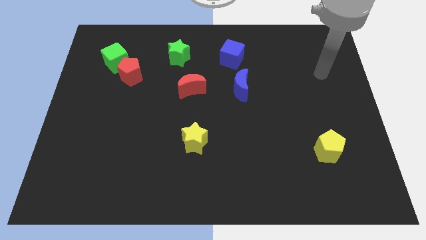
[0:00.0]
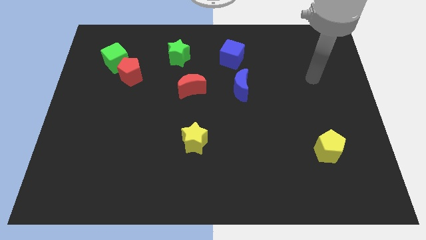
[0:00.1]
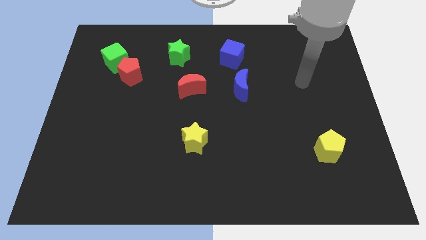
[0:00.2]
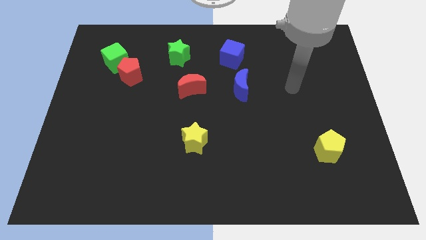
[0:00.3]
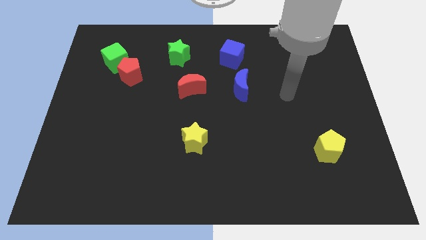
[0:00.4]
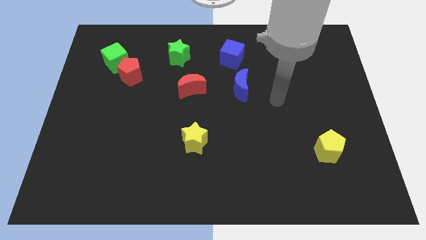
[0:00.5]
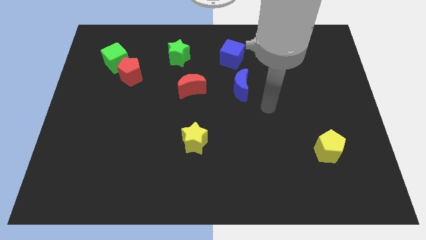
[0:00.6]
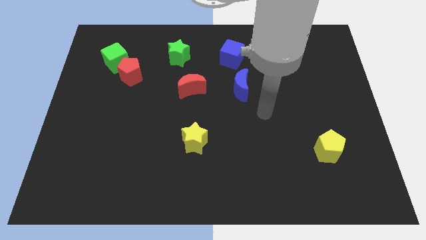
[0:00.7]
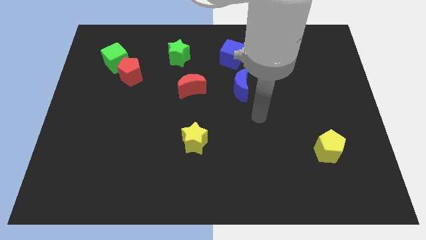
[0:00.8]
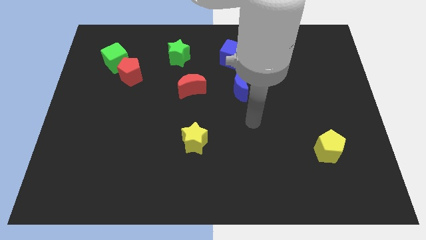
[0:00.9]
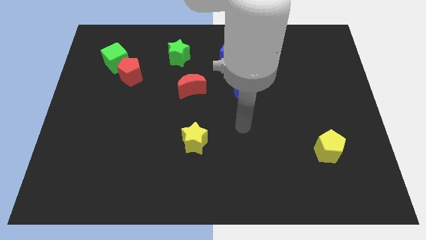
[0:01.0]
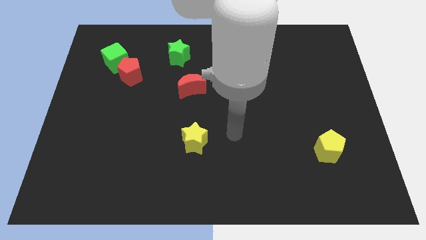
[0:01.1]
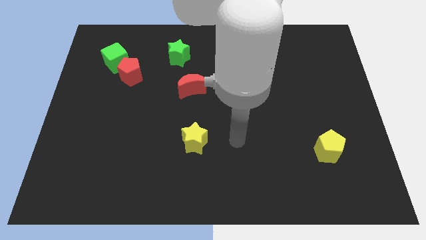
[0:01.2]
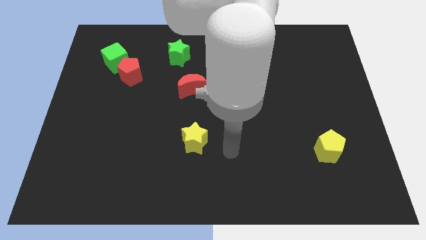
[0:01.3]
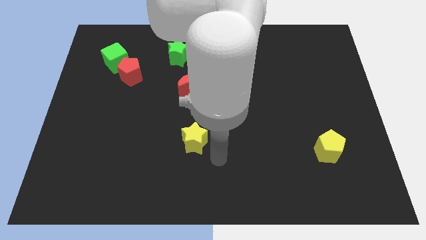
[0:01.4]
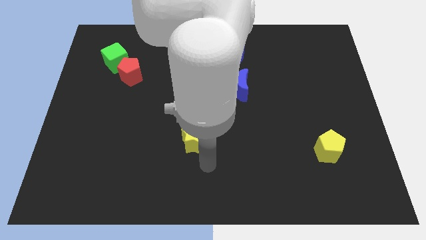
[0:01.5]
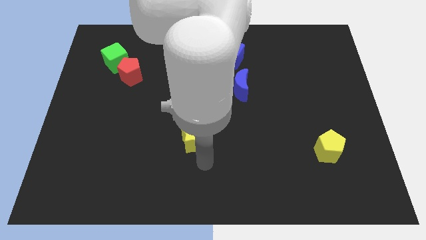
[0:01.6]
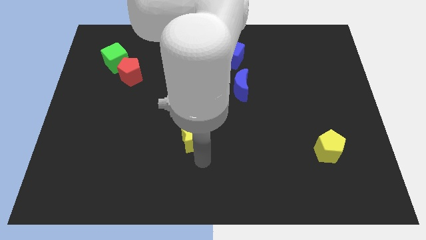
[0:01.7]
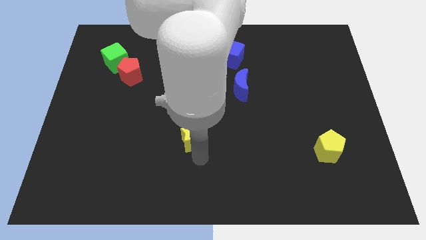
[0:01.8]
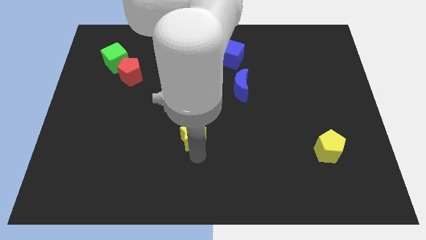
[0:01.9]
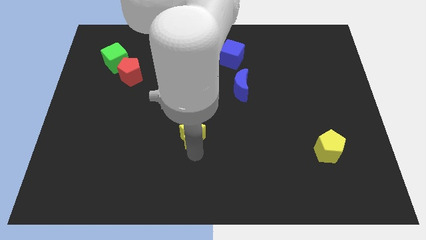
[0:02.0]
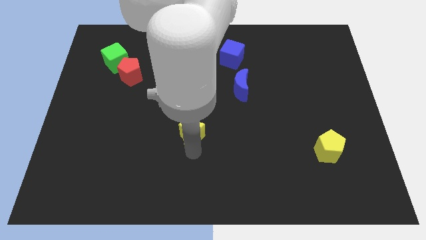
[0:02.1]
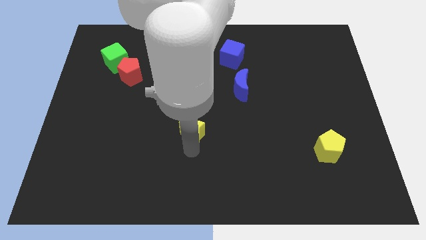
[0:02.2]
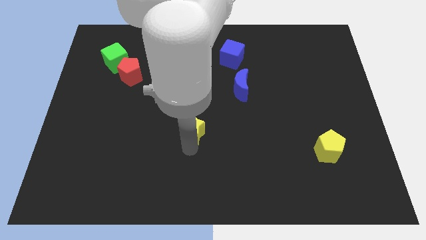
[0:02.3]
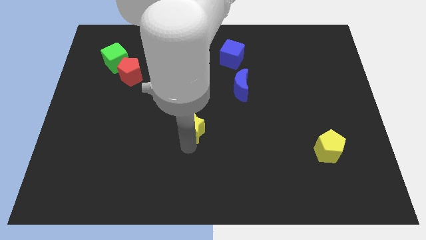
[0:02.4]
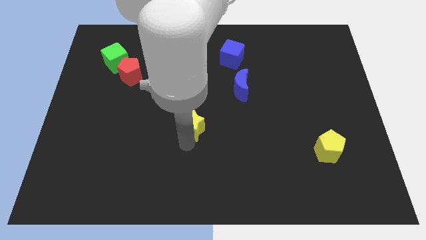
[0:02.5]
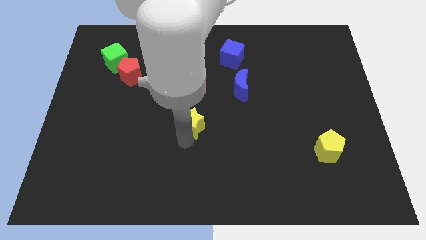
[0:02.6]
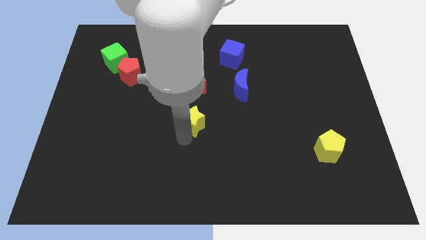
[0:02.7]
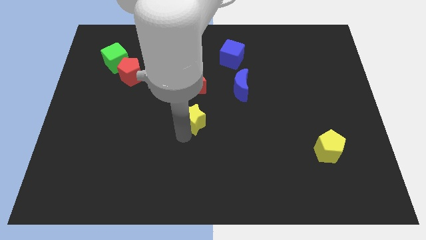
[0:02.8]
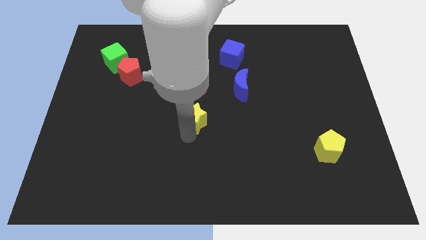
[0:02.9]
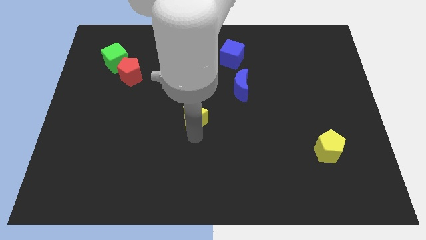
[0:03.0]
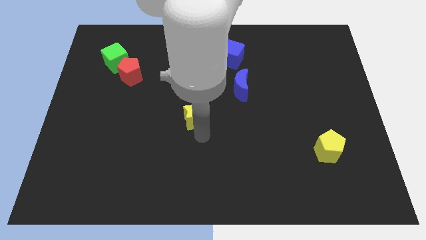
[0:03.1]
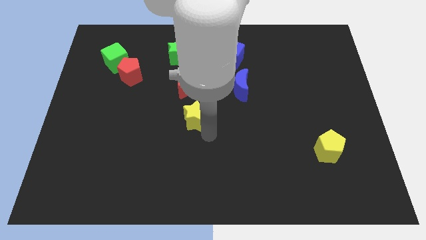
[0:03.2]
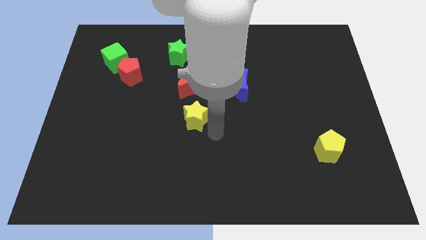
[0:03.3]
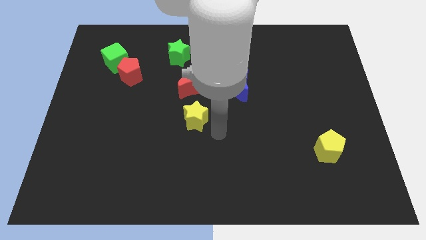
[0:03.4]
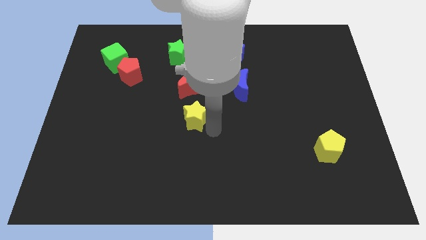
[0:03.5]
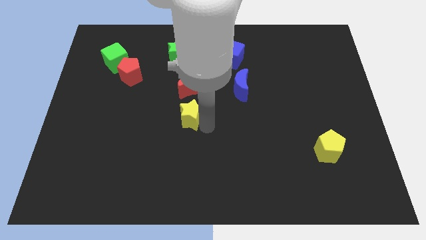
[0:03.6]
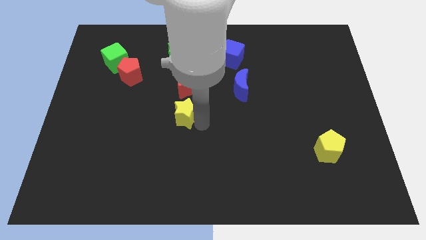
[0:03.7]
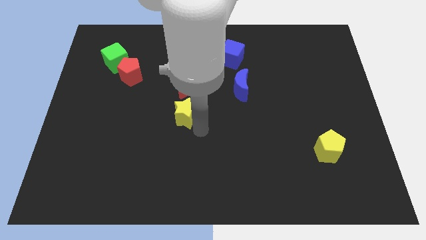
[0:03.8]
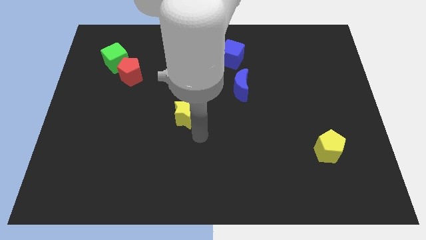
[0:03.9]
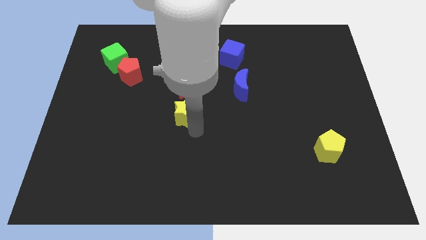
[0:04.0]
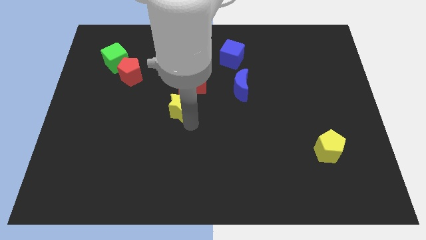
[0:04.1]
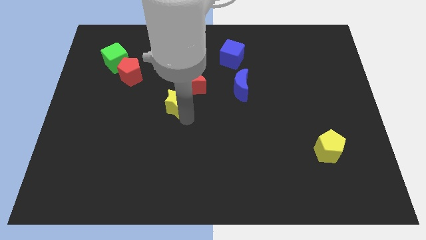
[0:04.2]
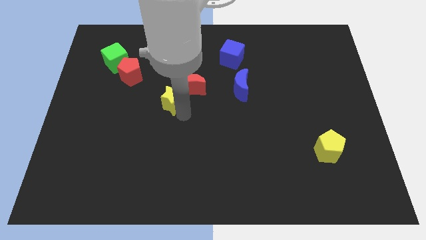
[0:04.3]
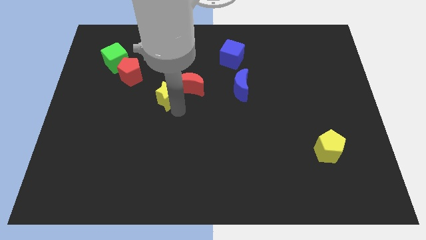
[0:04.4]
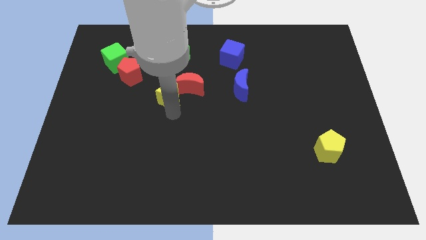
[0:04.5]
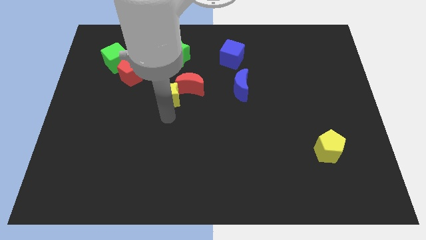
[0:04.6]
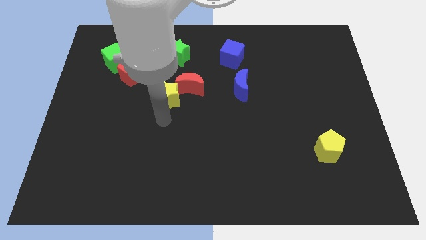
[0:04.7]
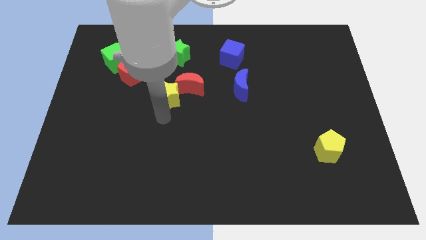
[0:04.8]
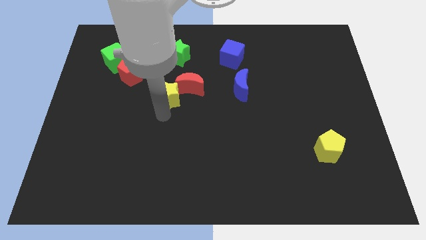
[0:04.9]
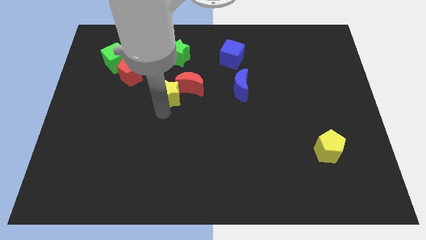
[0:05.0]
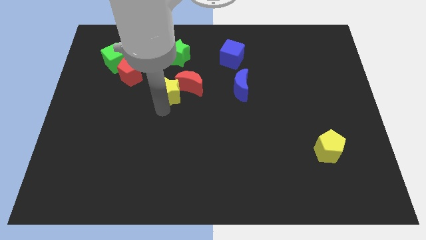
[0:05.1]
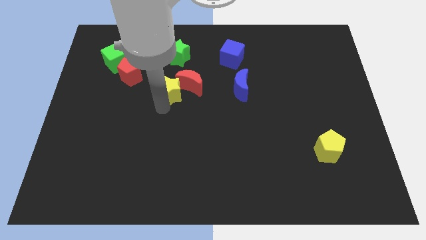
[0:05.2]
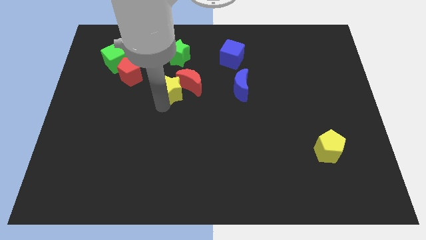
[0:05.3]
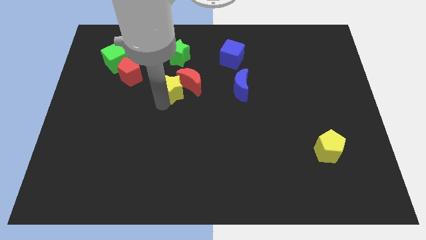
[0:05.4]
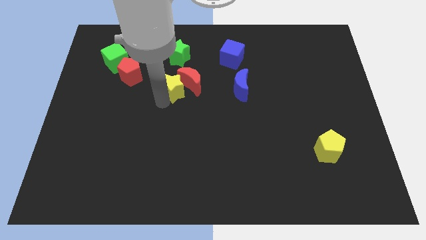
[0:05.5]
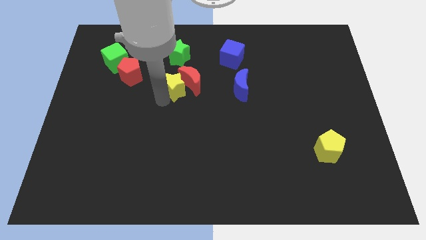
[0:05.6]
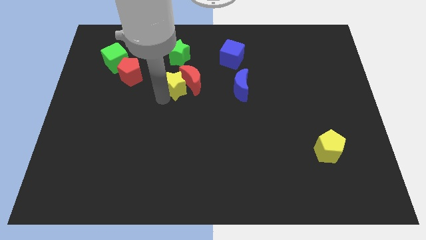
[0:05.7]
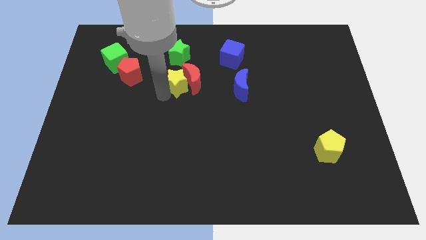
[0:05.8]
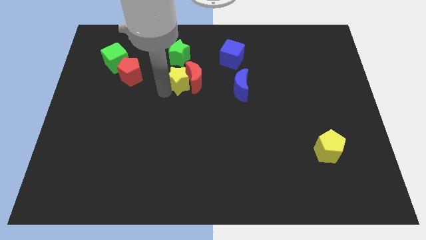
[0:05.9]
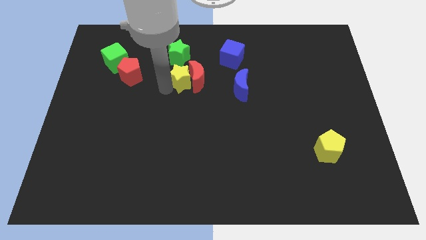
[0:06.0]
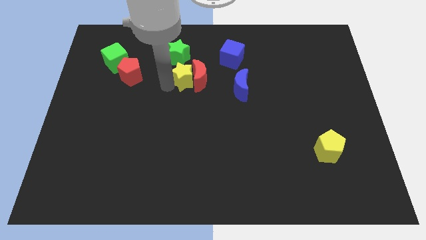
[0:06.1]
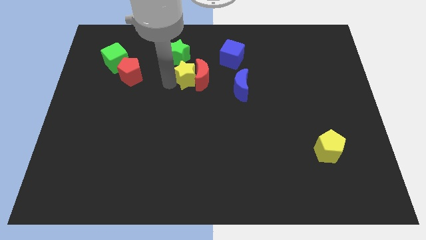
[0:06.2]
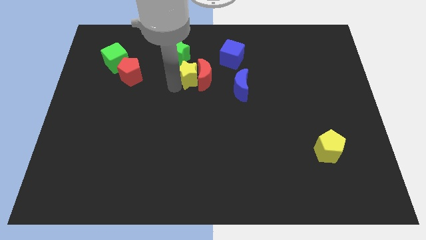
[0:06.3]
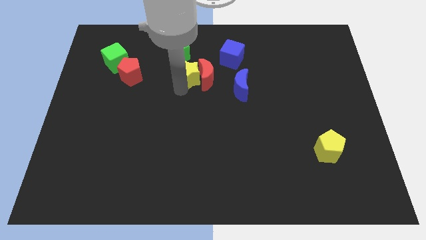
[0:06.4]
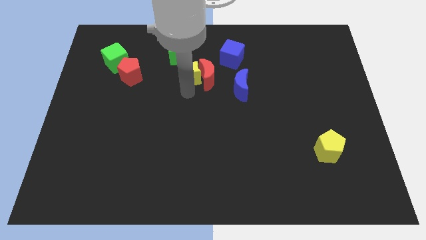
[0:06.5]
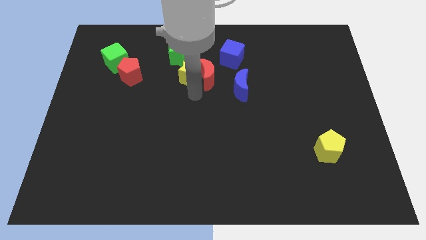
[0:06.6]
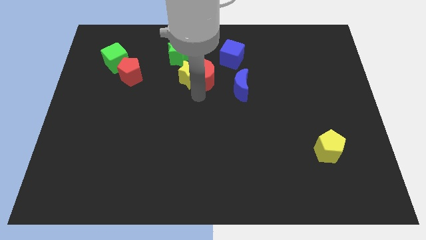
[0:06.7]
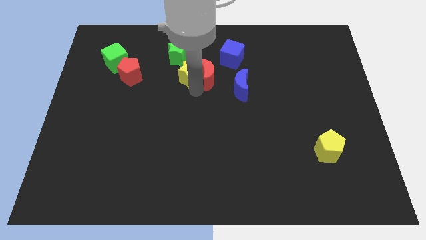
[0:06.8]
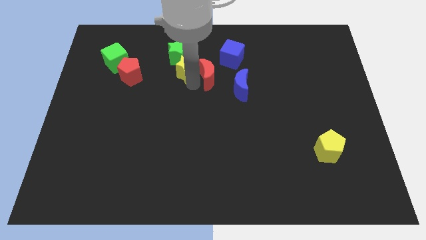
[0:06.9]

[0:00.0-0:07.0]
move the yellow star next to the green star

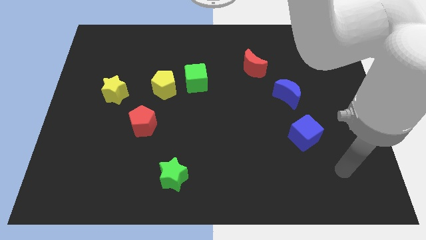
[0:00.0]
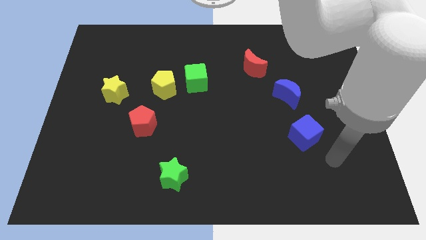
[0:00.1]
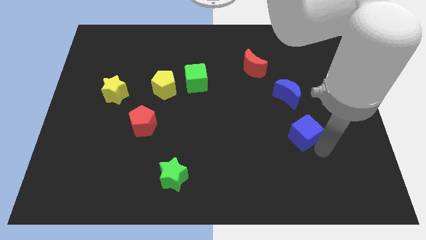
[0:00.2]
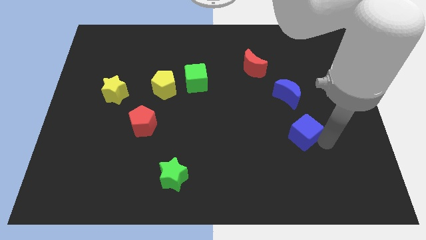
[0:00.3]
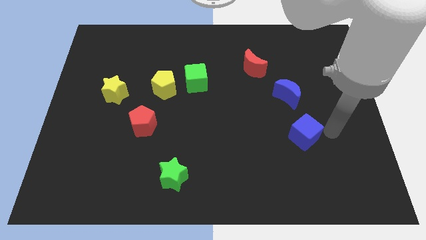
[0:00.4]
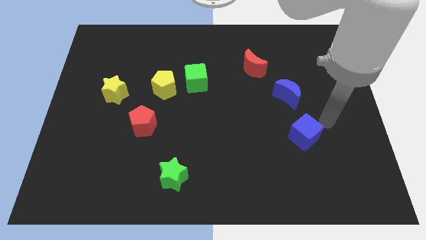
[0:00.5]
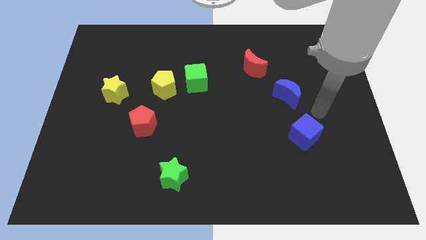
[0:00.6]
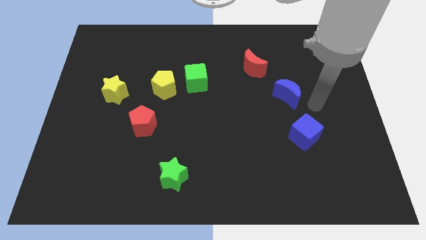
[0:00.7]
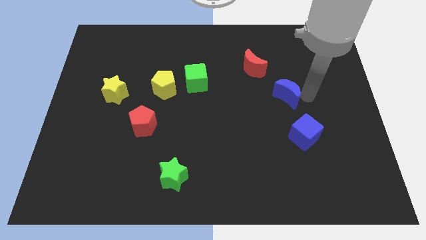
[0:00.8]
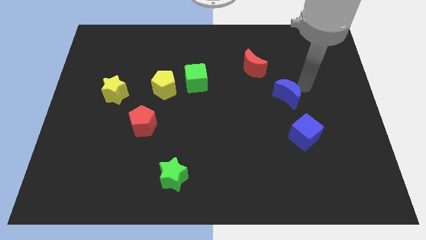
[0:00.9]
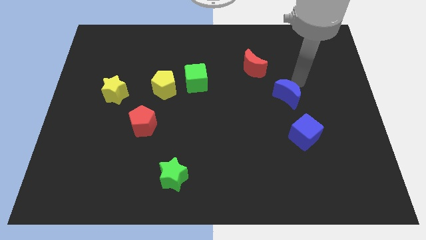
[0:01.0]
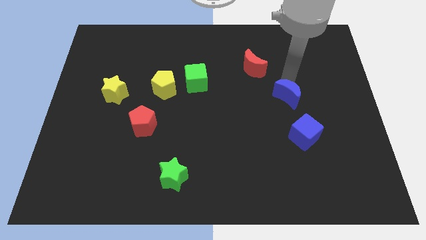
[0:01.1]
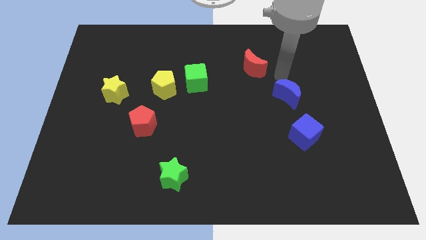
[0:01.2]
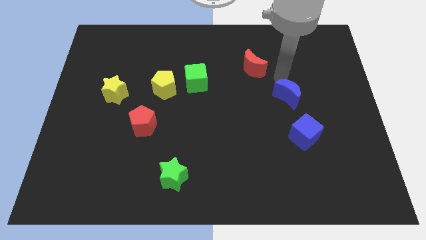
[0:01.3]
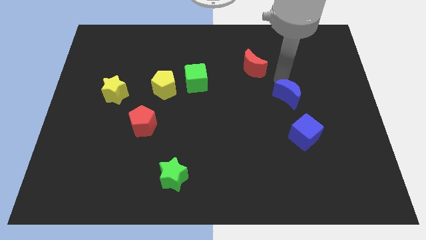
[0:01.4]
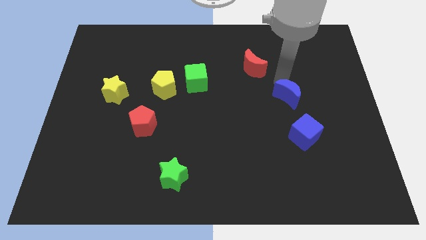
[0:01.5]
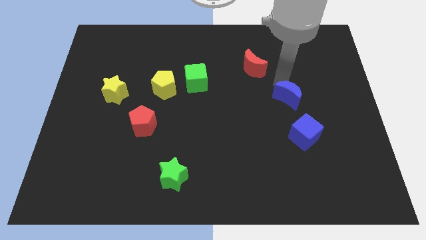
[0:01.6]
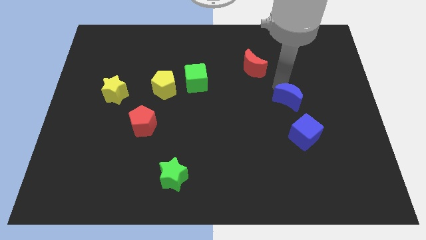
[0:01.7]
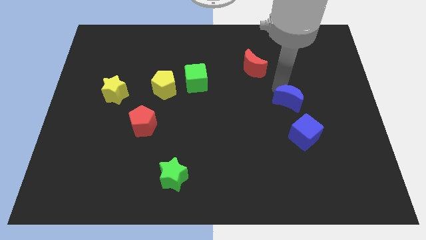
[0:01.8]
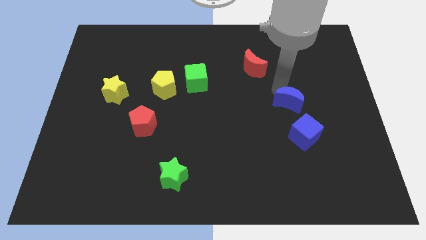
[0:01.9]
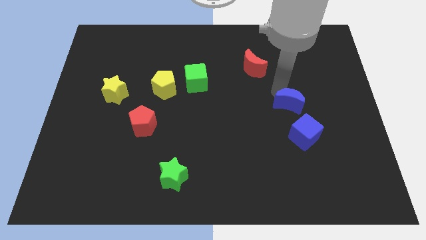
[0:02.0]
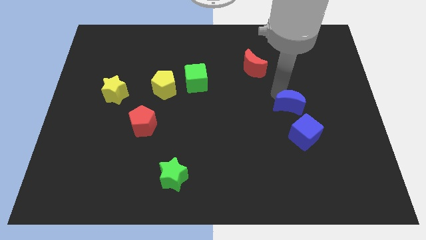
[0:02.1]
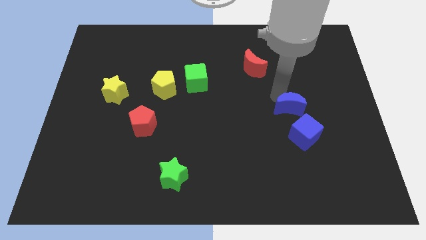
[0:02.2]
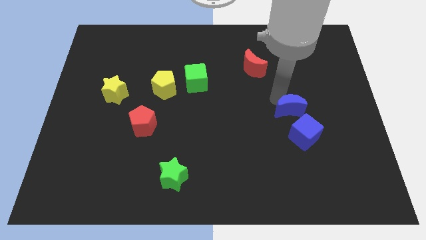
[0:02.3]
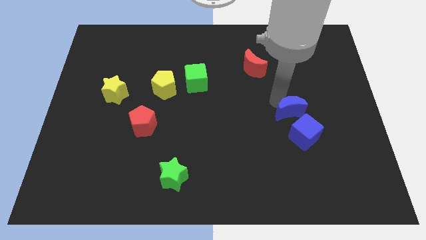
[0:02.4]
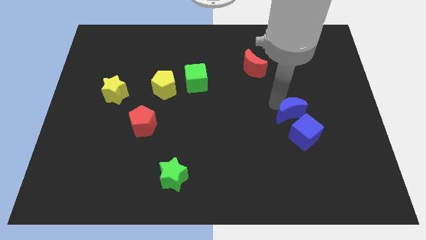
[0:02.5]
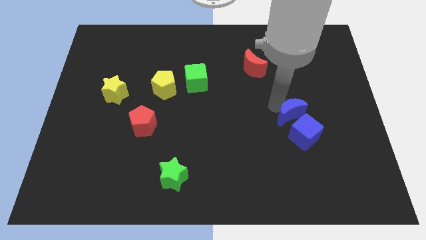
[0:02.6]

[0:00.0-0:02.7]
push the blue moon towards the blue cube
